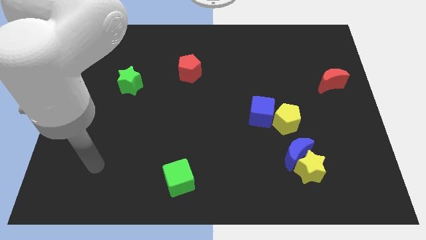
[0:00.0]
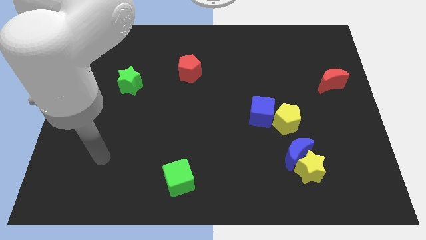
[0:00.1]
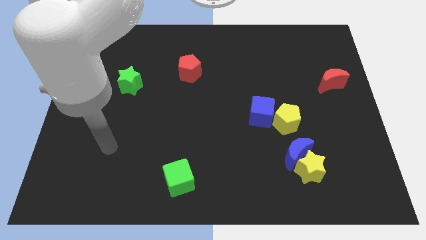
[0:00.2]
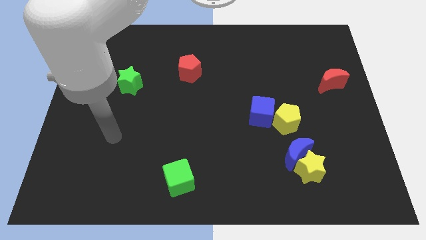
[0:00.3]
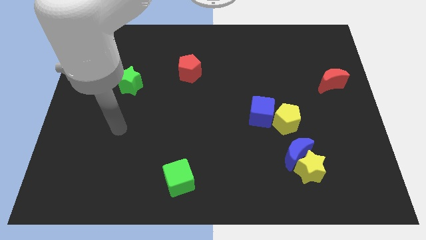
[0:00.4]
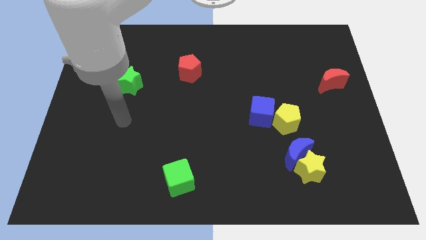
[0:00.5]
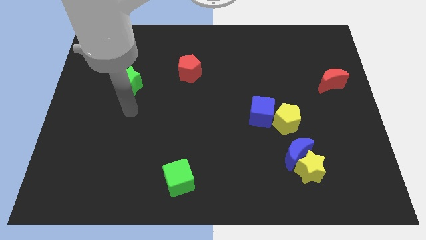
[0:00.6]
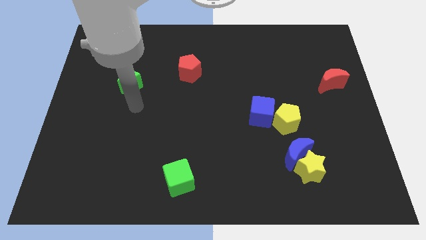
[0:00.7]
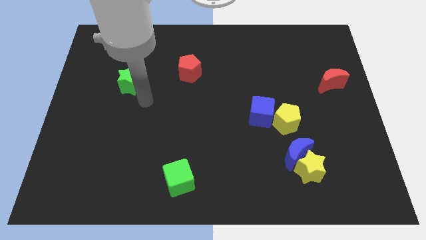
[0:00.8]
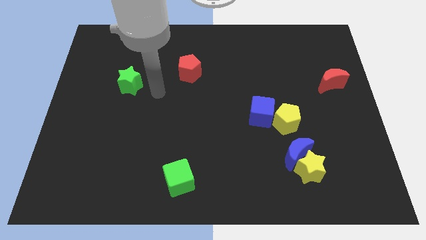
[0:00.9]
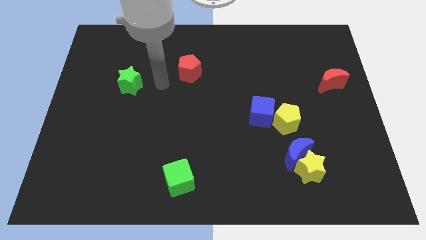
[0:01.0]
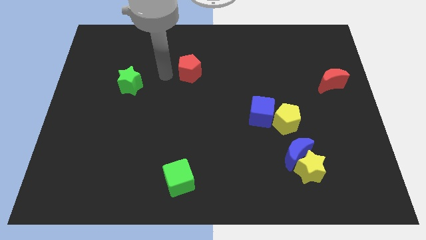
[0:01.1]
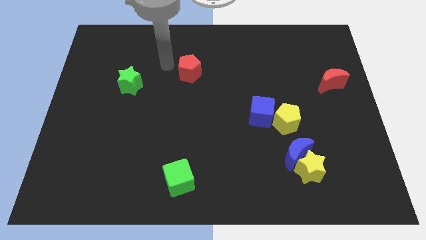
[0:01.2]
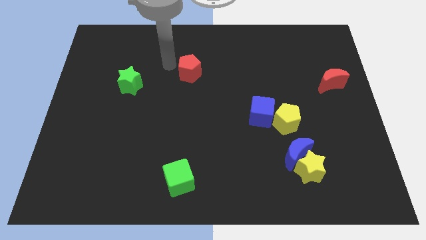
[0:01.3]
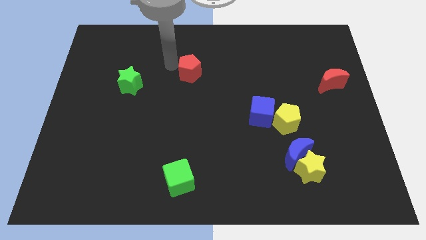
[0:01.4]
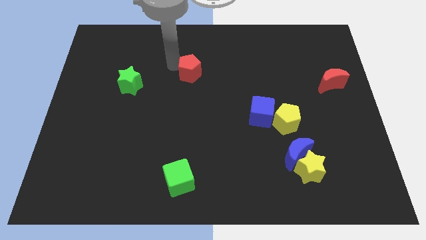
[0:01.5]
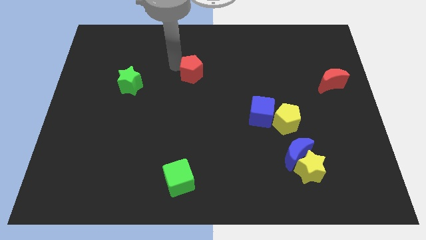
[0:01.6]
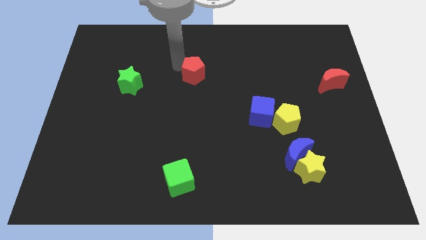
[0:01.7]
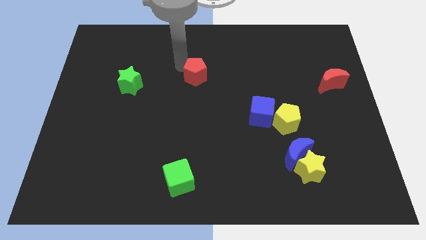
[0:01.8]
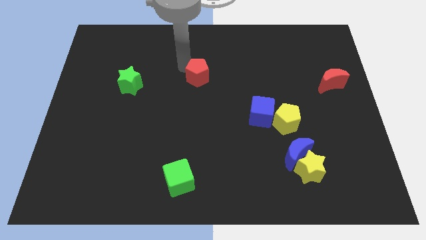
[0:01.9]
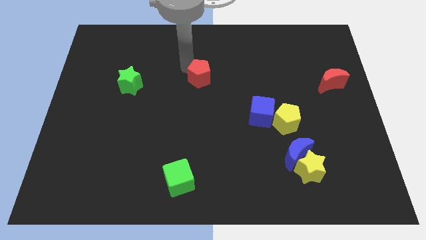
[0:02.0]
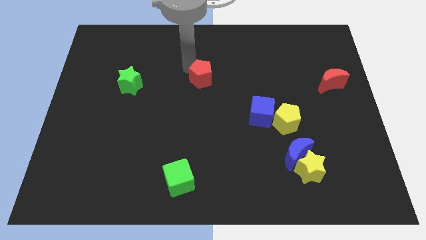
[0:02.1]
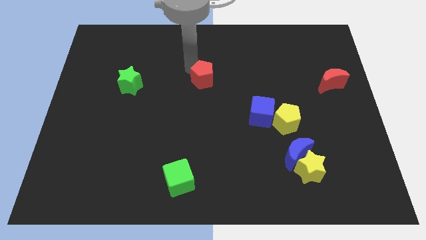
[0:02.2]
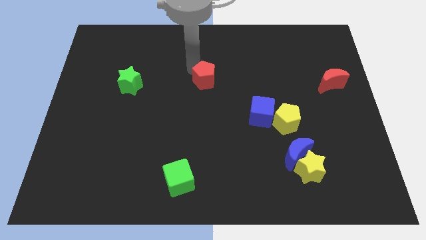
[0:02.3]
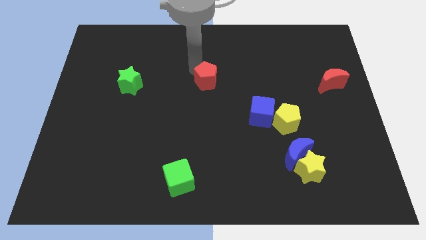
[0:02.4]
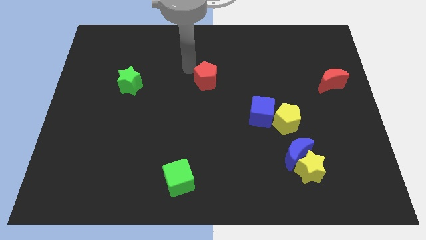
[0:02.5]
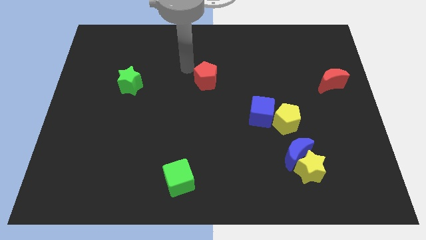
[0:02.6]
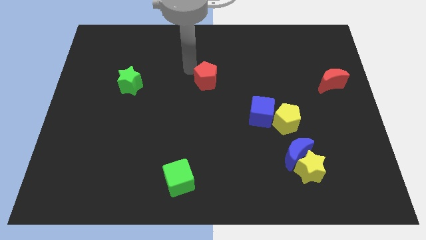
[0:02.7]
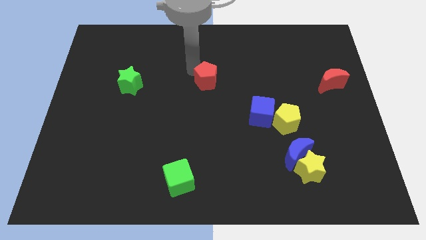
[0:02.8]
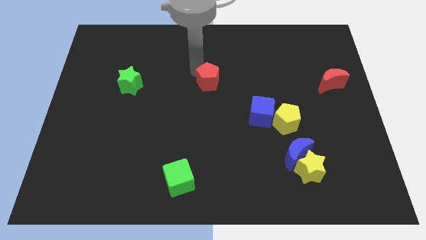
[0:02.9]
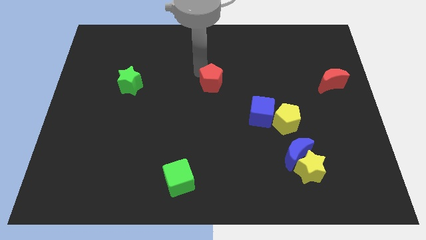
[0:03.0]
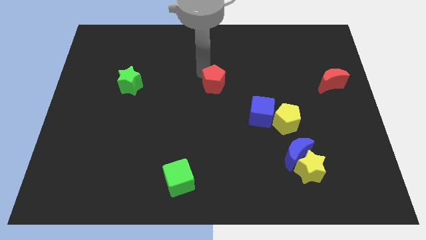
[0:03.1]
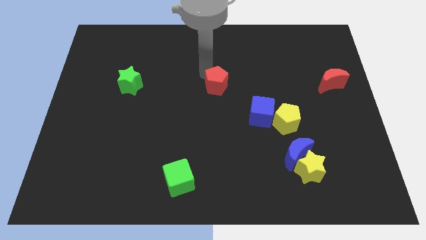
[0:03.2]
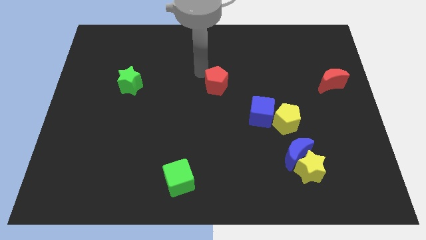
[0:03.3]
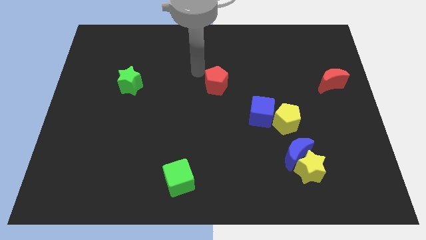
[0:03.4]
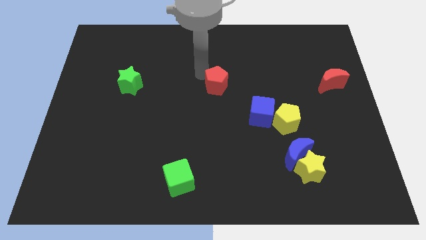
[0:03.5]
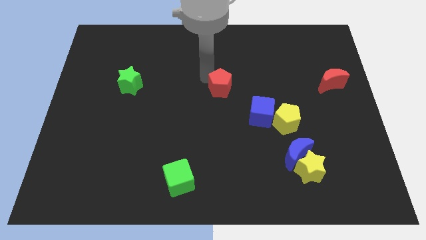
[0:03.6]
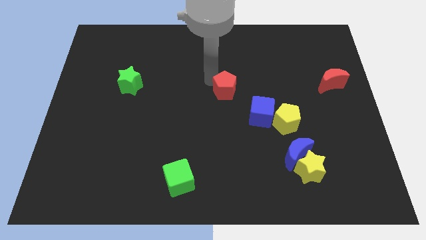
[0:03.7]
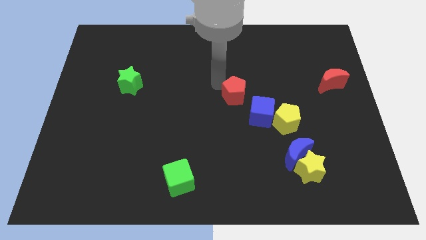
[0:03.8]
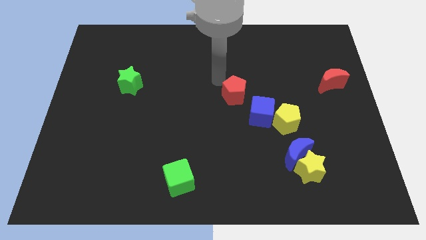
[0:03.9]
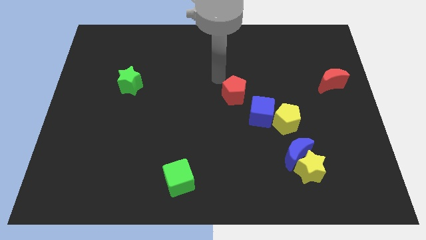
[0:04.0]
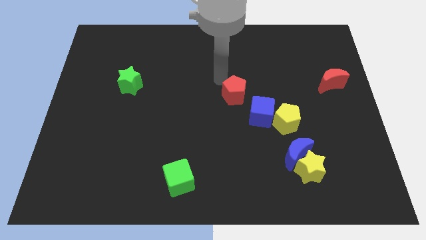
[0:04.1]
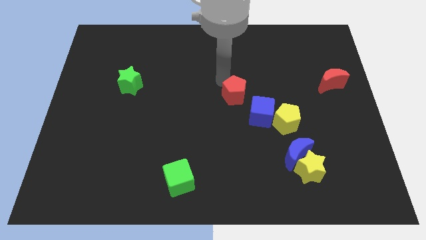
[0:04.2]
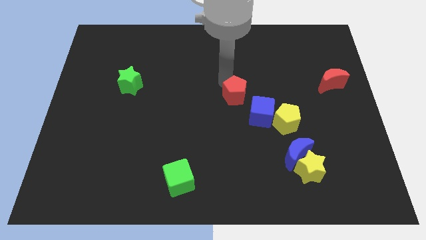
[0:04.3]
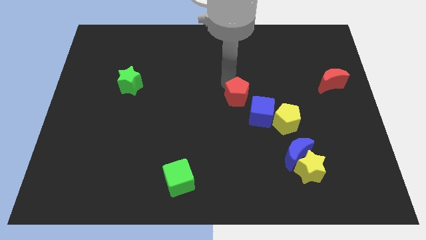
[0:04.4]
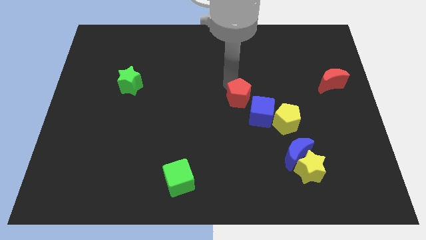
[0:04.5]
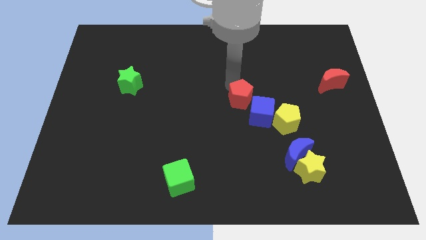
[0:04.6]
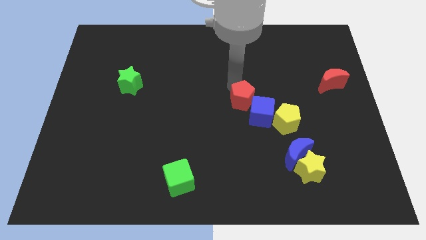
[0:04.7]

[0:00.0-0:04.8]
move the red pentagon to the blue cube

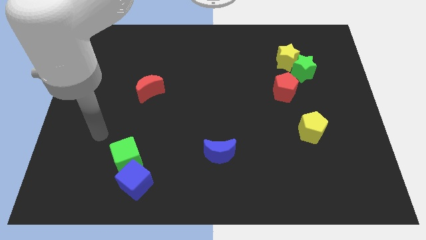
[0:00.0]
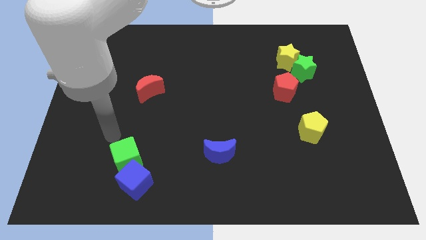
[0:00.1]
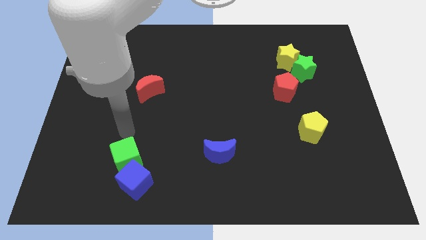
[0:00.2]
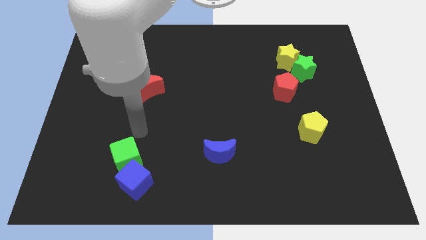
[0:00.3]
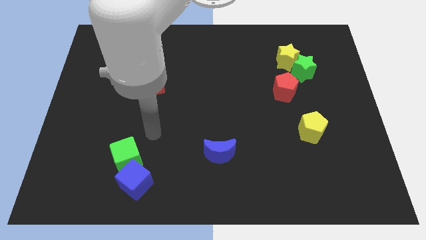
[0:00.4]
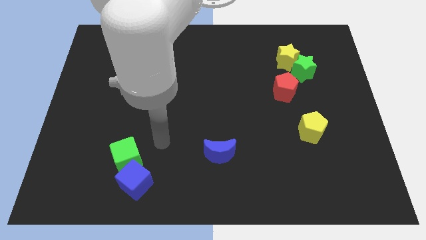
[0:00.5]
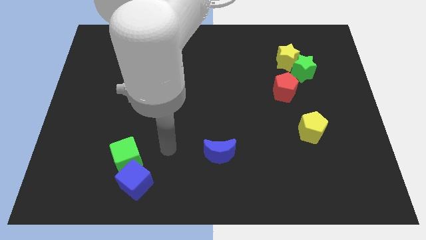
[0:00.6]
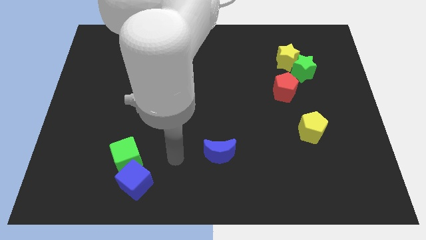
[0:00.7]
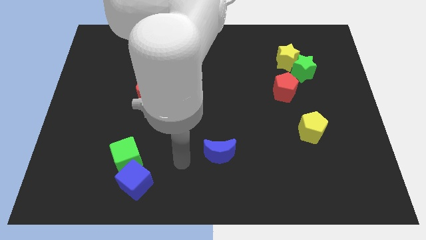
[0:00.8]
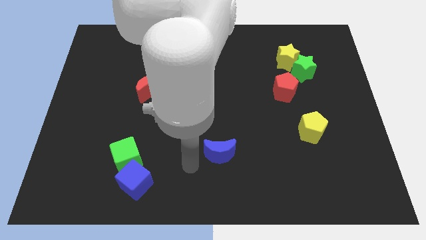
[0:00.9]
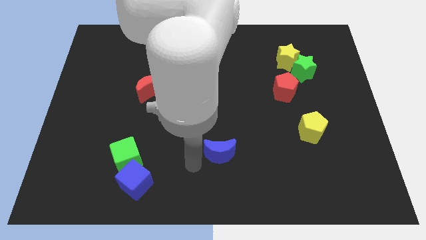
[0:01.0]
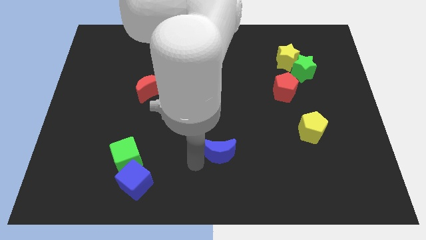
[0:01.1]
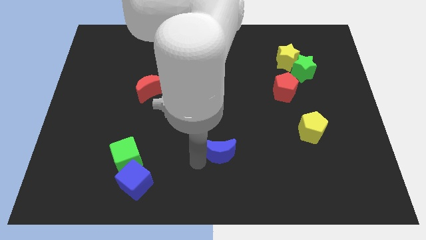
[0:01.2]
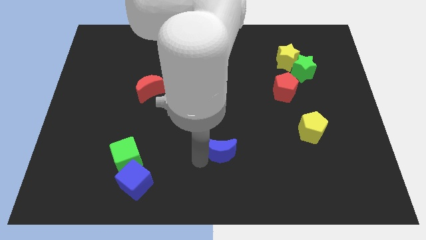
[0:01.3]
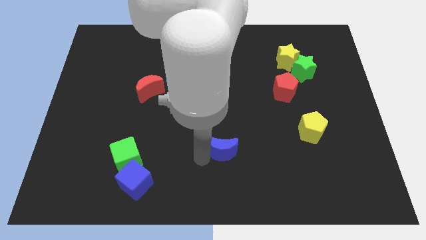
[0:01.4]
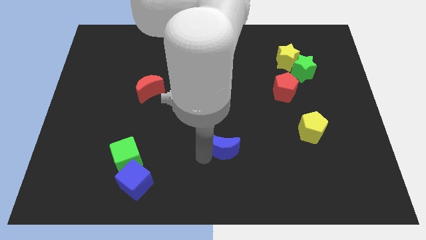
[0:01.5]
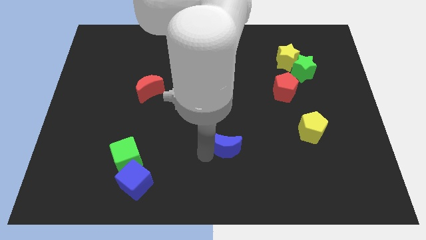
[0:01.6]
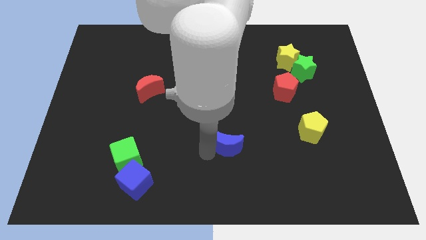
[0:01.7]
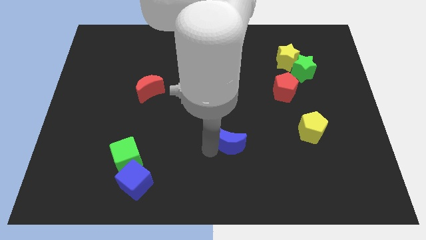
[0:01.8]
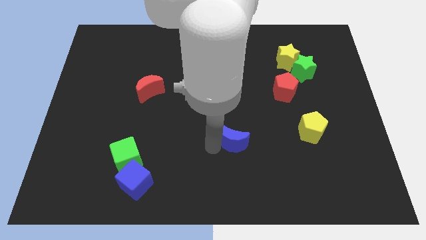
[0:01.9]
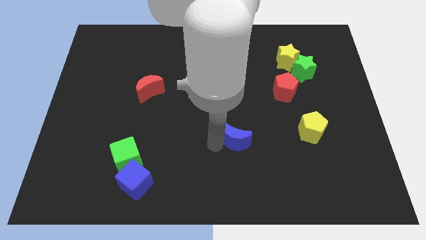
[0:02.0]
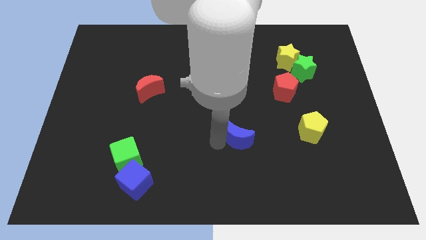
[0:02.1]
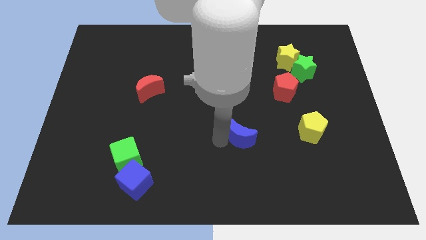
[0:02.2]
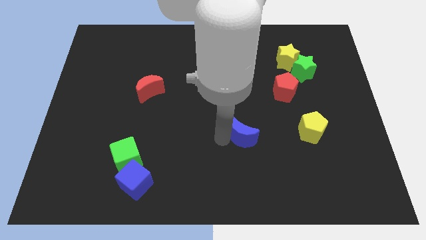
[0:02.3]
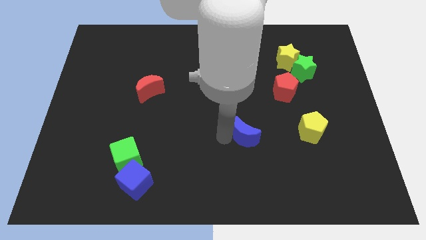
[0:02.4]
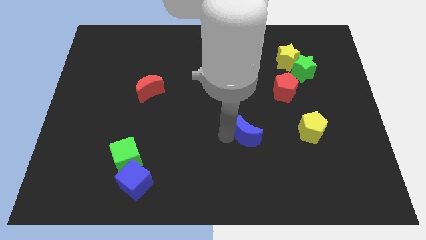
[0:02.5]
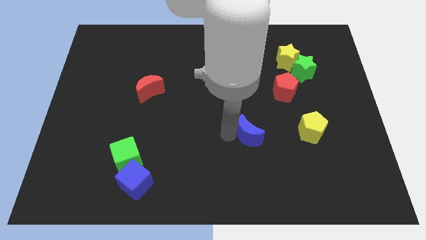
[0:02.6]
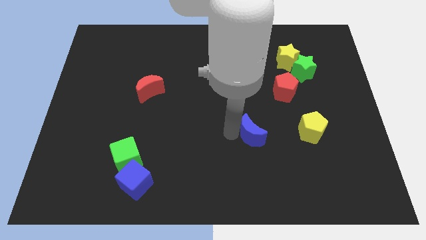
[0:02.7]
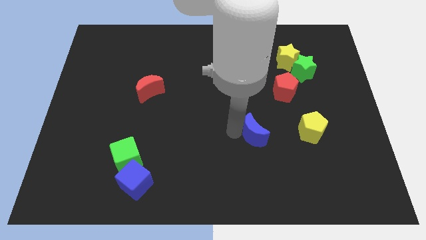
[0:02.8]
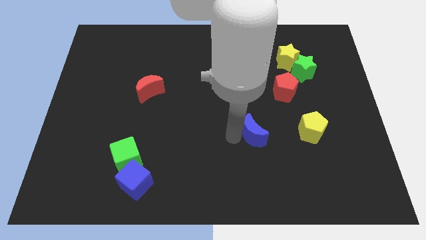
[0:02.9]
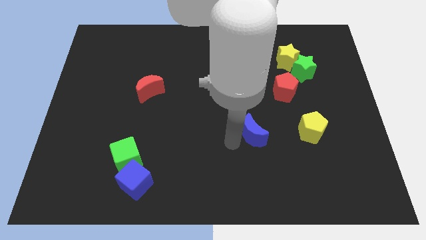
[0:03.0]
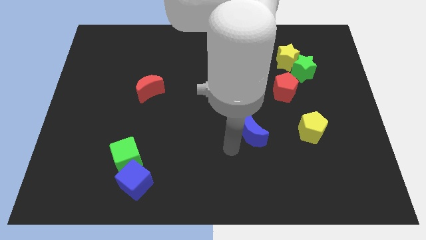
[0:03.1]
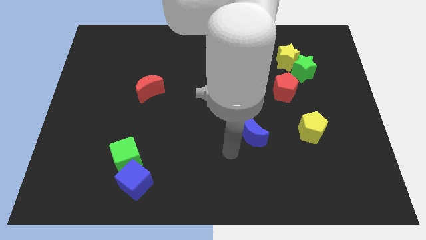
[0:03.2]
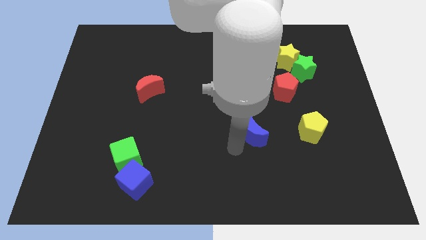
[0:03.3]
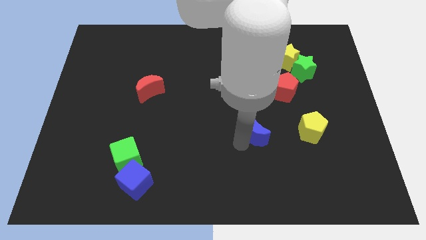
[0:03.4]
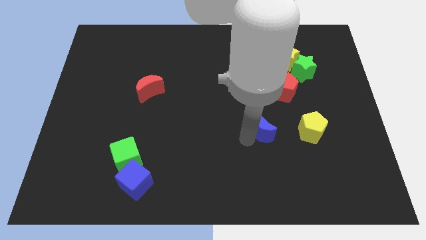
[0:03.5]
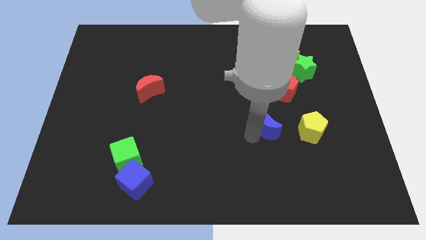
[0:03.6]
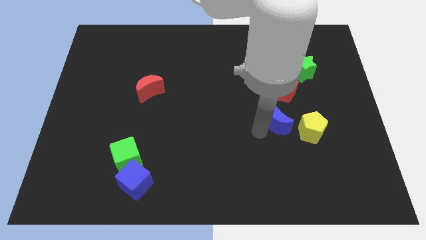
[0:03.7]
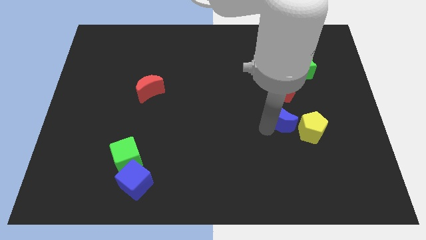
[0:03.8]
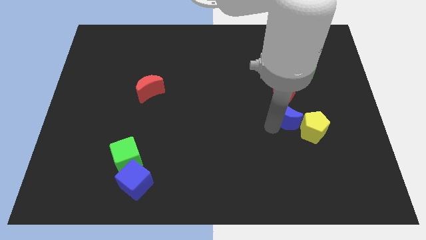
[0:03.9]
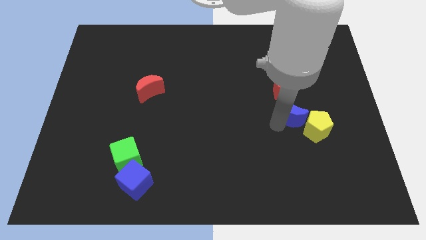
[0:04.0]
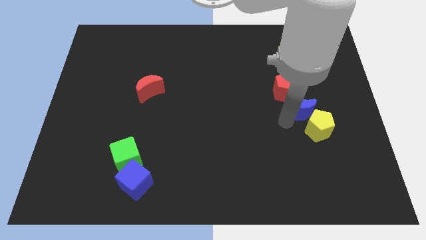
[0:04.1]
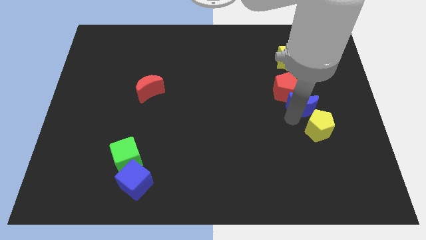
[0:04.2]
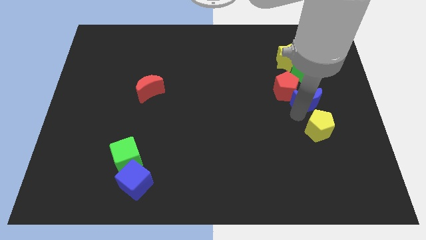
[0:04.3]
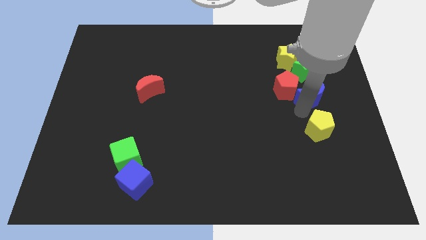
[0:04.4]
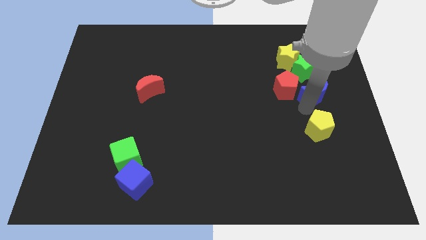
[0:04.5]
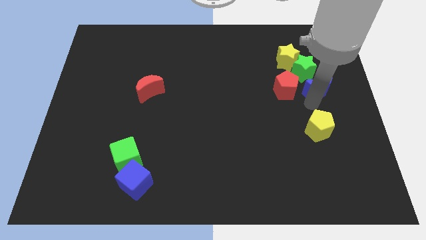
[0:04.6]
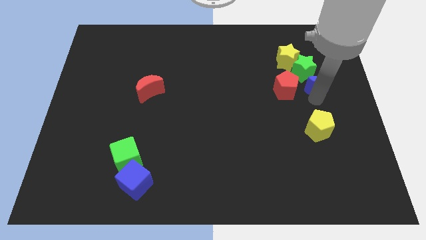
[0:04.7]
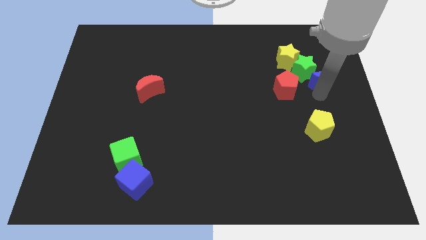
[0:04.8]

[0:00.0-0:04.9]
move the blue moon towards the green star
